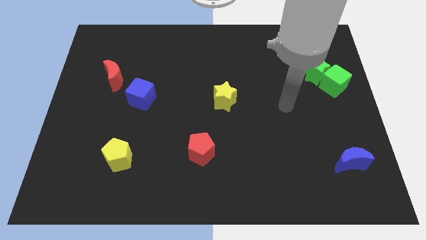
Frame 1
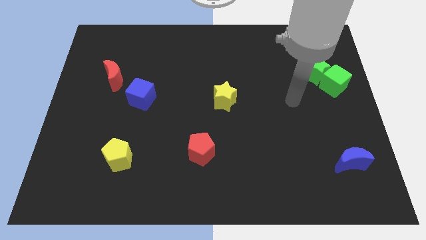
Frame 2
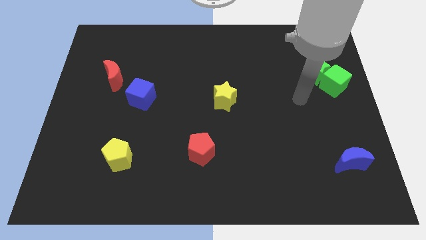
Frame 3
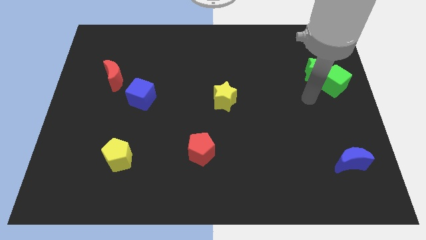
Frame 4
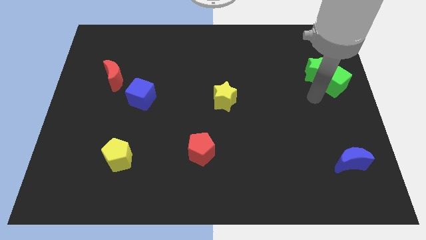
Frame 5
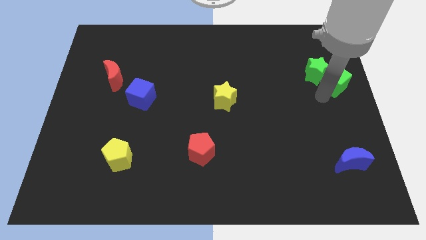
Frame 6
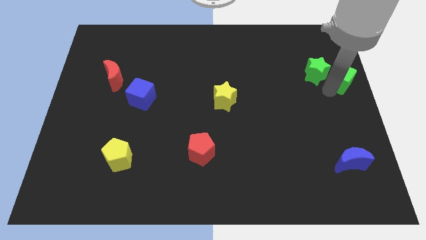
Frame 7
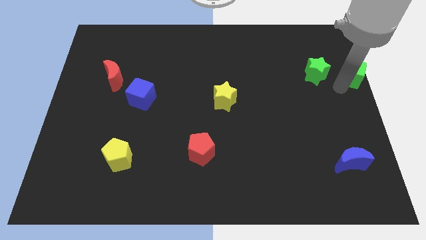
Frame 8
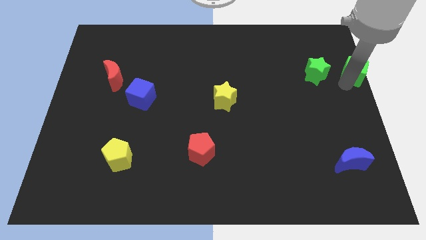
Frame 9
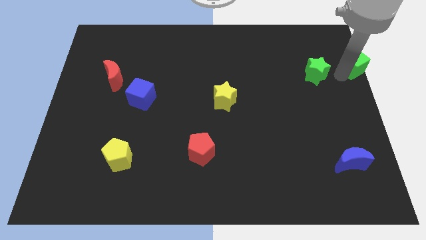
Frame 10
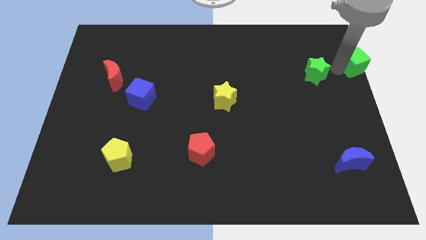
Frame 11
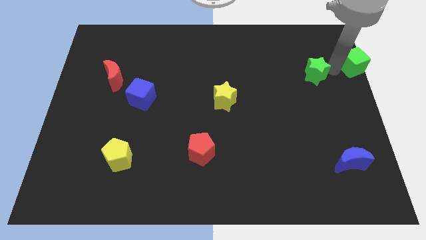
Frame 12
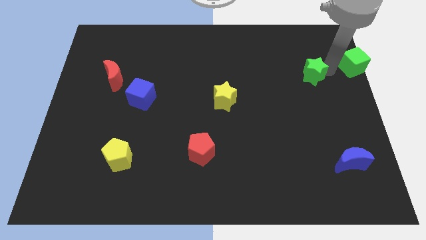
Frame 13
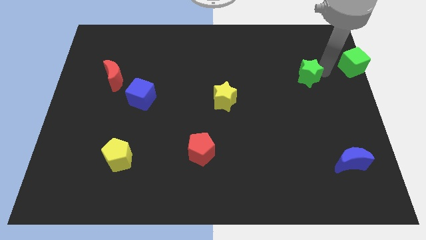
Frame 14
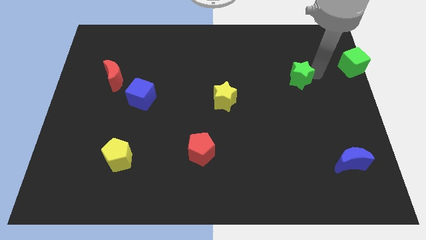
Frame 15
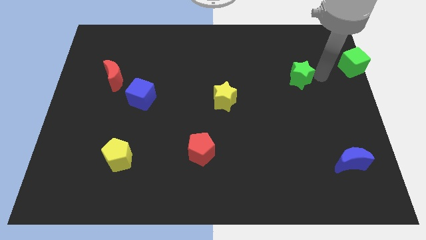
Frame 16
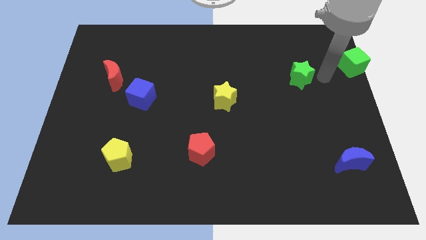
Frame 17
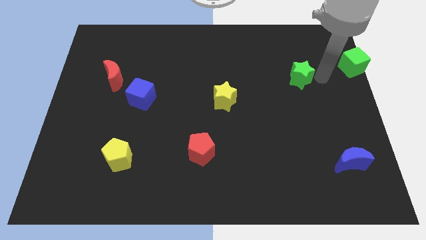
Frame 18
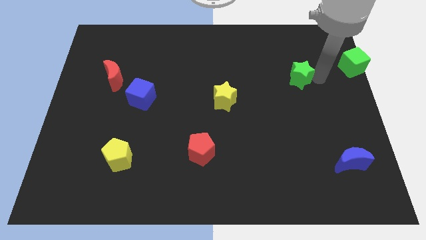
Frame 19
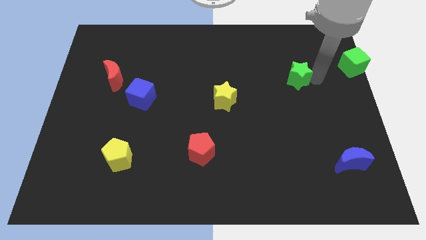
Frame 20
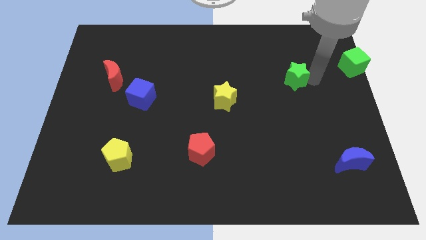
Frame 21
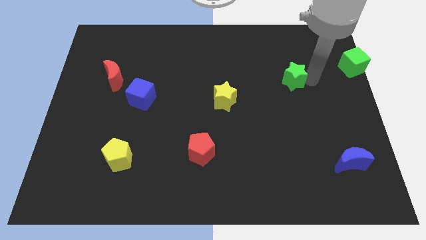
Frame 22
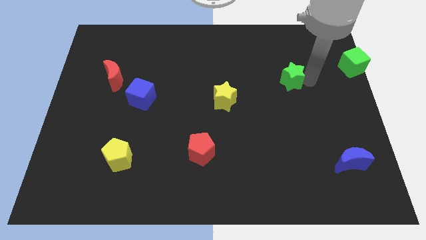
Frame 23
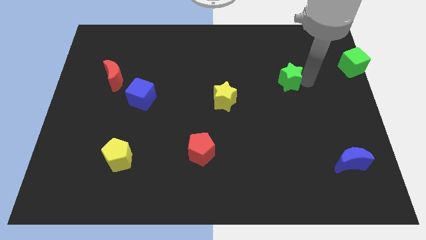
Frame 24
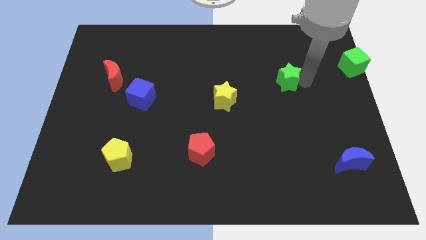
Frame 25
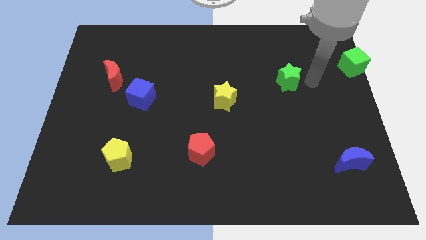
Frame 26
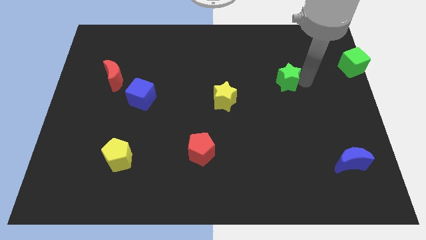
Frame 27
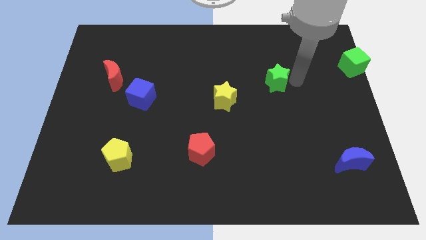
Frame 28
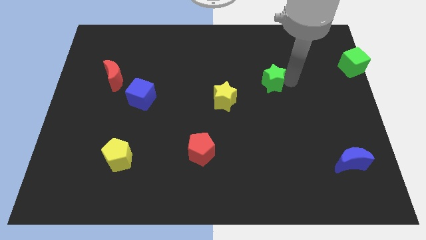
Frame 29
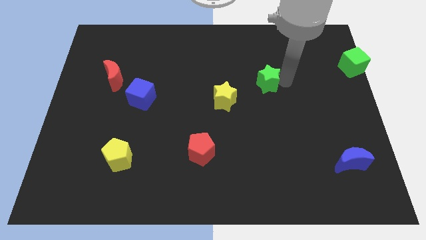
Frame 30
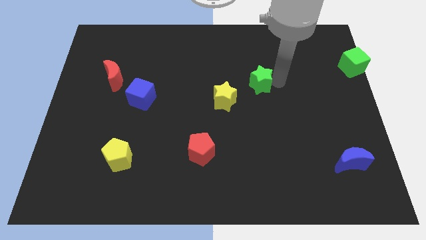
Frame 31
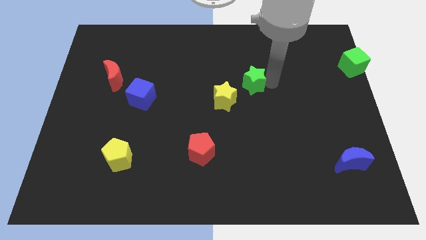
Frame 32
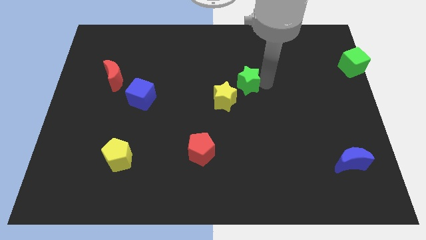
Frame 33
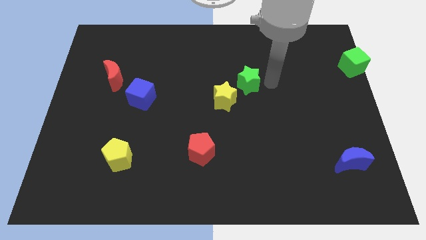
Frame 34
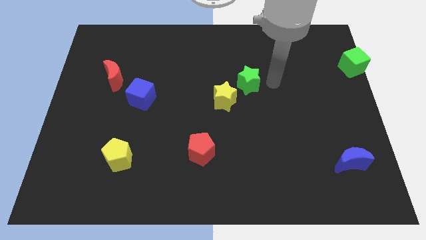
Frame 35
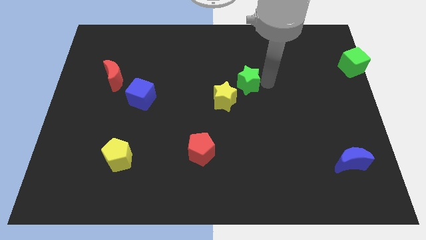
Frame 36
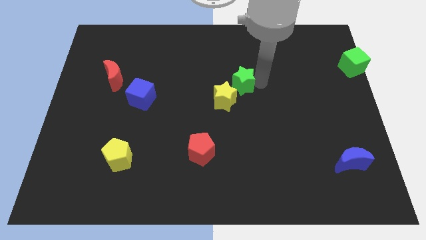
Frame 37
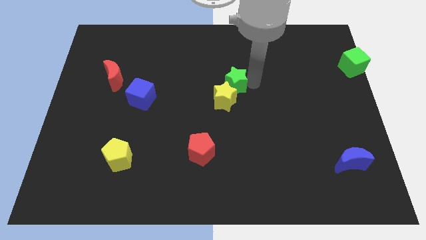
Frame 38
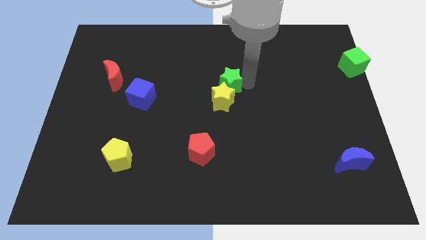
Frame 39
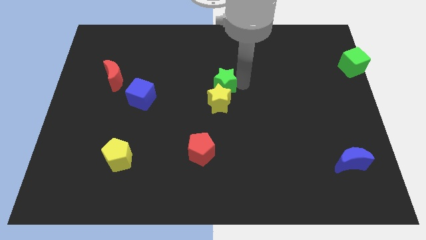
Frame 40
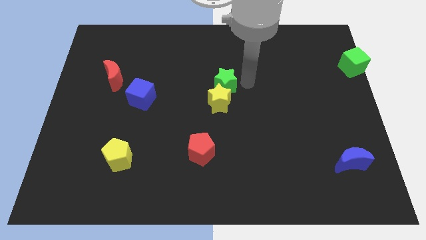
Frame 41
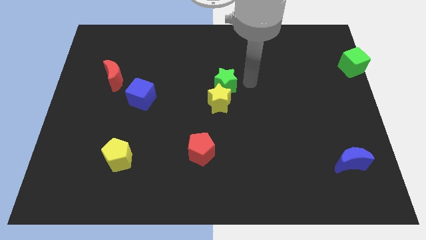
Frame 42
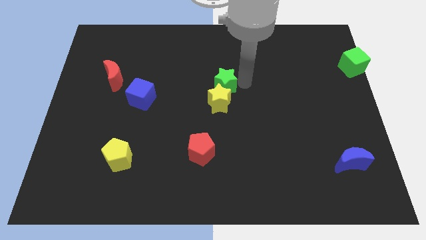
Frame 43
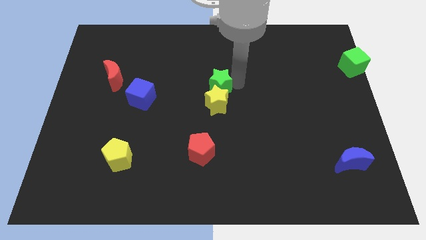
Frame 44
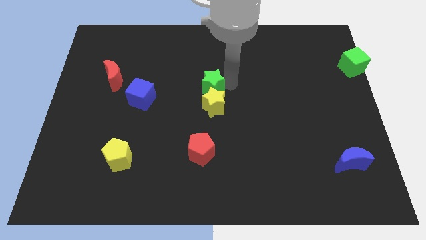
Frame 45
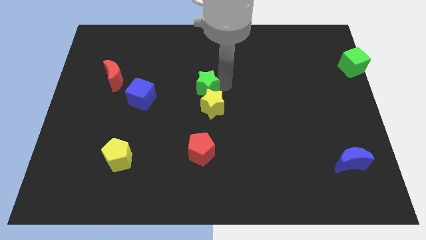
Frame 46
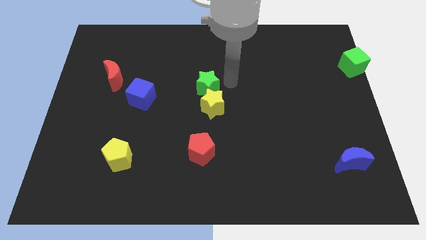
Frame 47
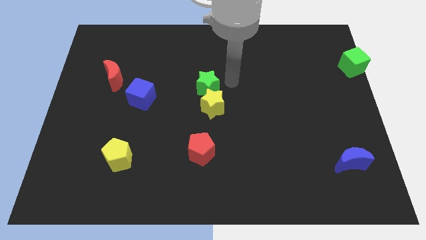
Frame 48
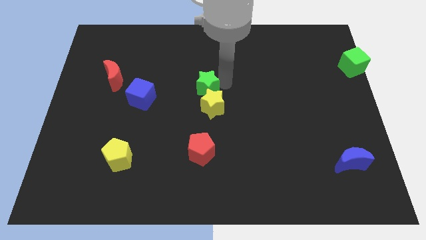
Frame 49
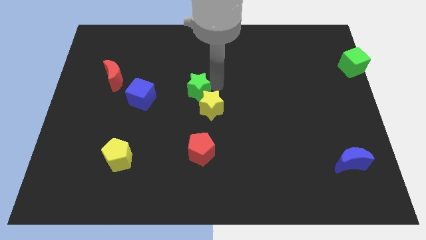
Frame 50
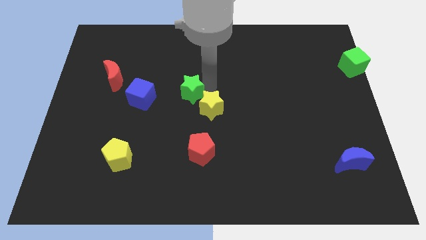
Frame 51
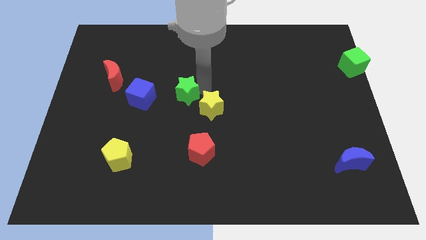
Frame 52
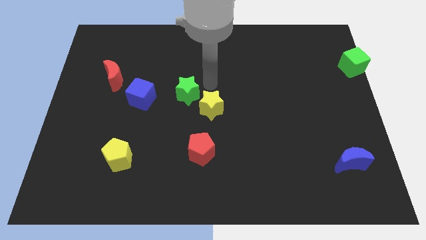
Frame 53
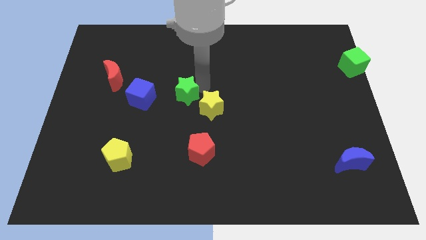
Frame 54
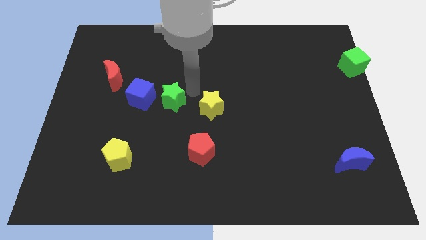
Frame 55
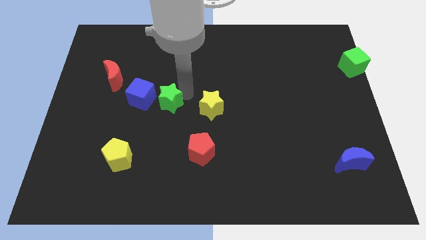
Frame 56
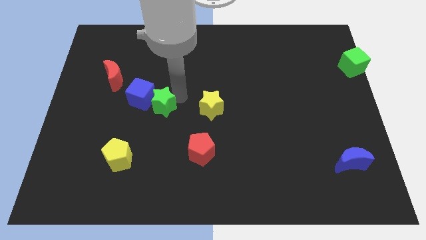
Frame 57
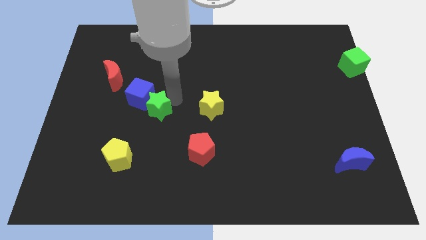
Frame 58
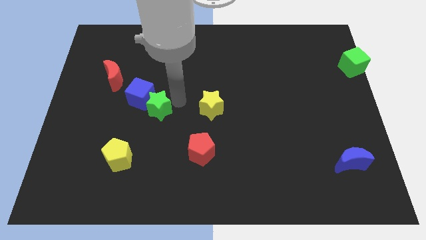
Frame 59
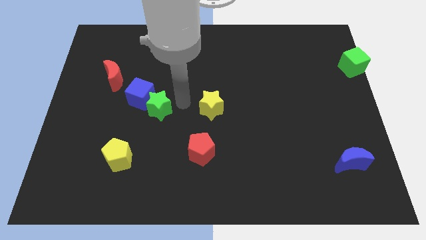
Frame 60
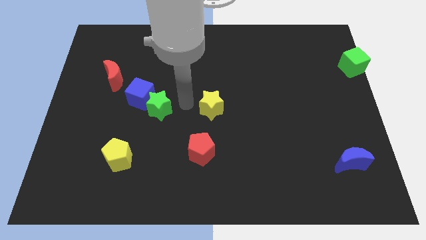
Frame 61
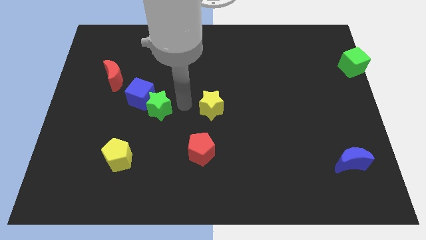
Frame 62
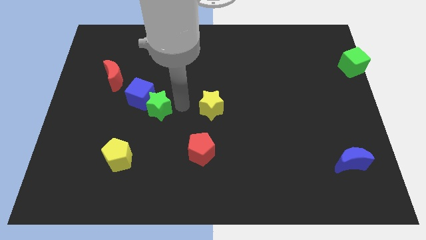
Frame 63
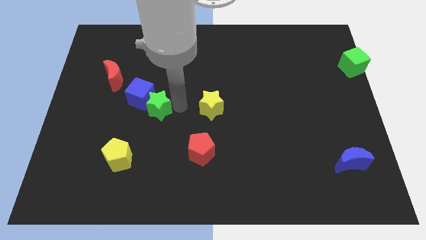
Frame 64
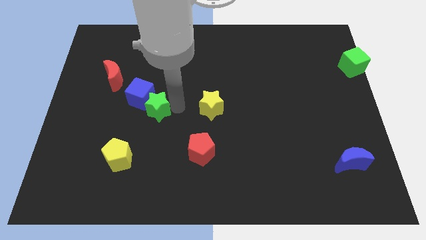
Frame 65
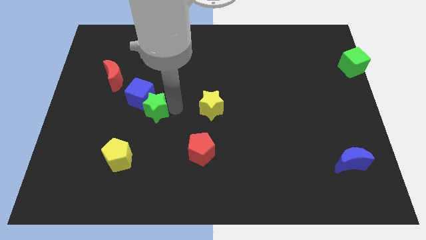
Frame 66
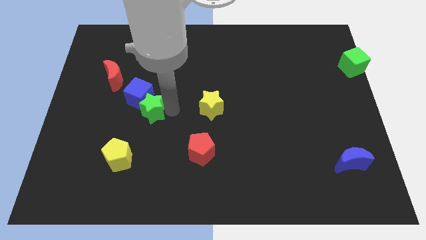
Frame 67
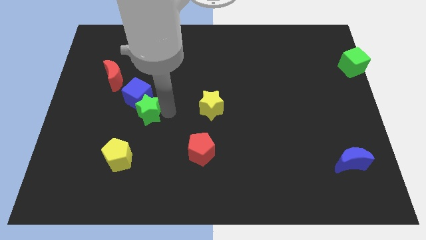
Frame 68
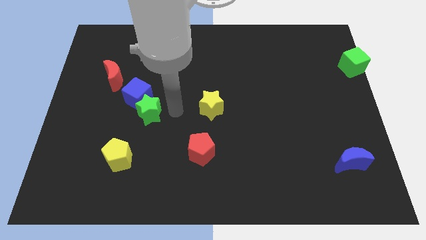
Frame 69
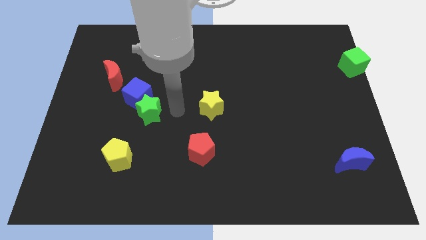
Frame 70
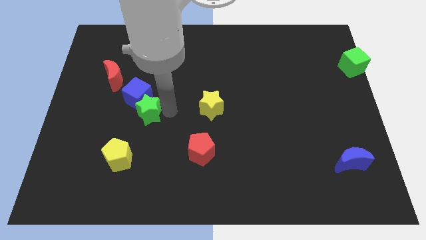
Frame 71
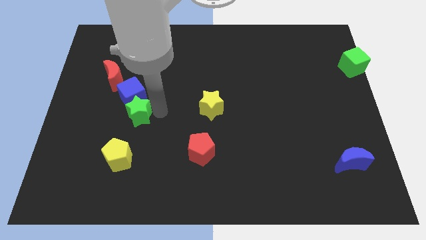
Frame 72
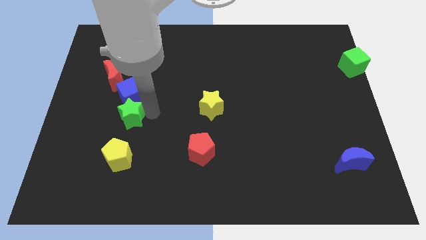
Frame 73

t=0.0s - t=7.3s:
slide the green star to the bottom left side of the blue cube
